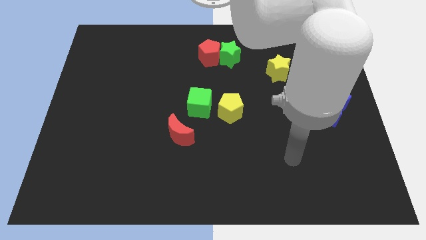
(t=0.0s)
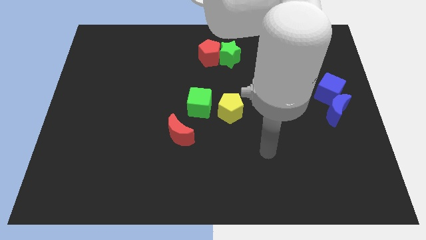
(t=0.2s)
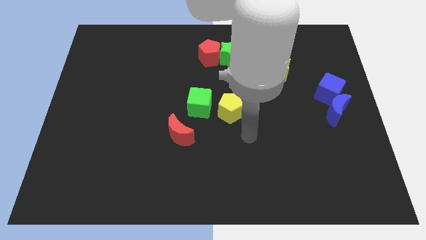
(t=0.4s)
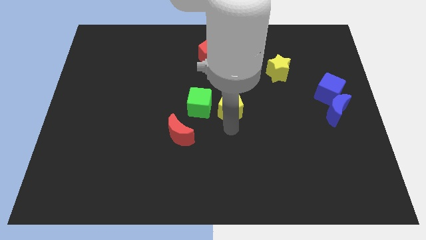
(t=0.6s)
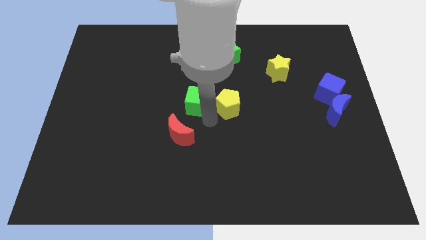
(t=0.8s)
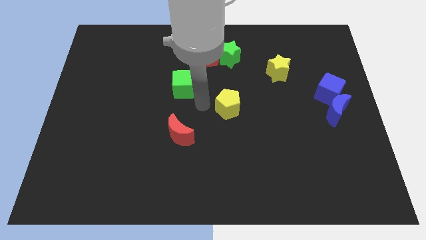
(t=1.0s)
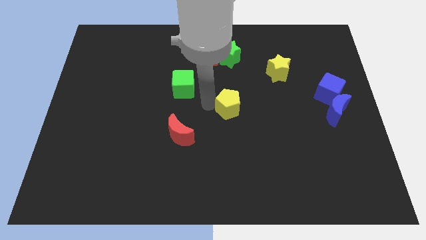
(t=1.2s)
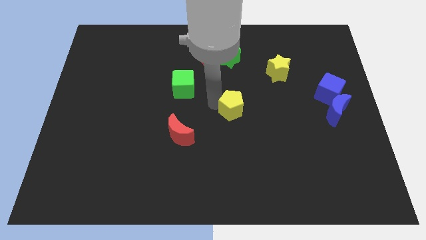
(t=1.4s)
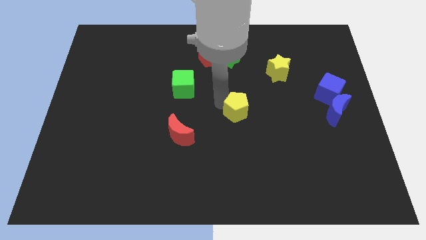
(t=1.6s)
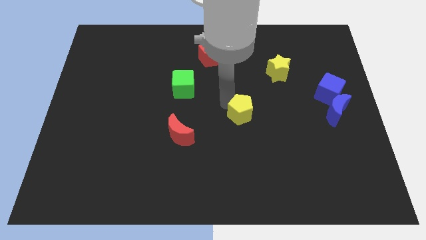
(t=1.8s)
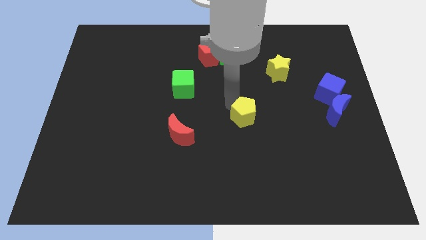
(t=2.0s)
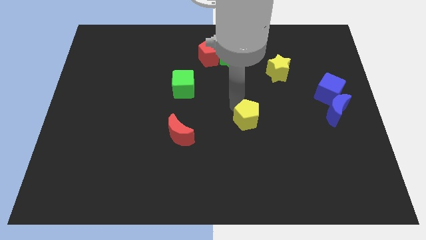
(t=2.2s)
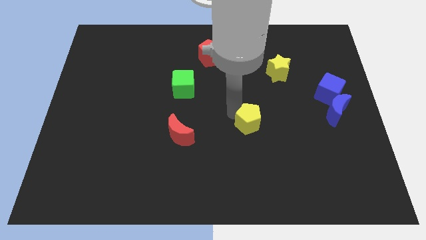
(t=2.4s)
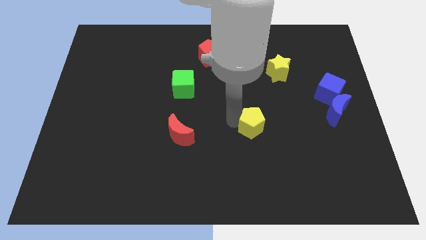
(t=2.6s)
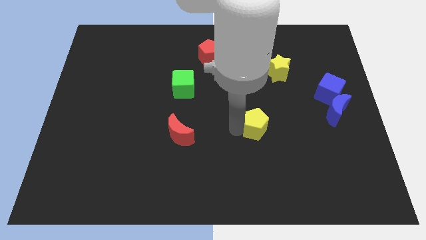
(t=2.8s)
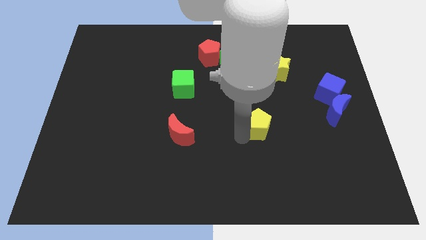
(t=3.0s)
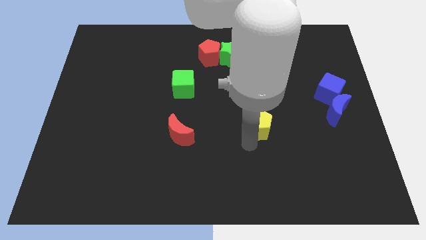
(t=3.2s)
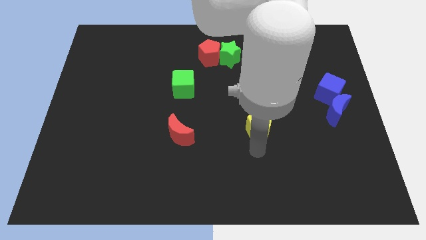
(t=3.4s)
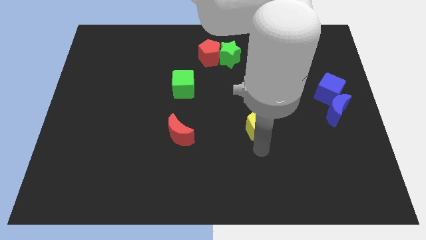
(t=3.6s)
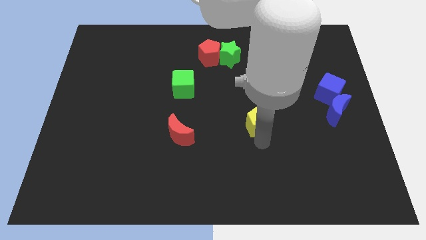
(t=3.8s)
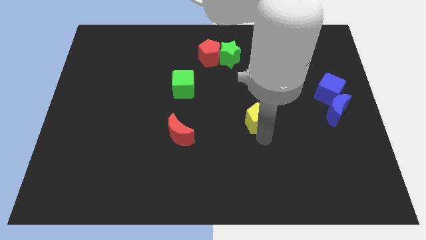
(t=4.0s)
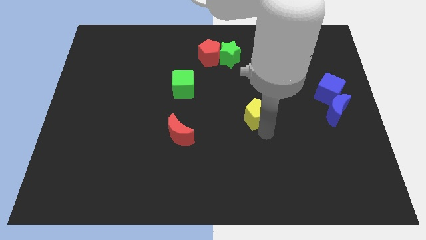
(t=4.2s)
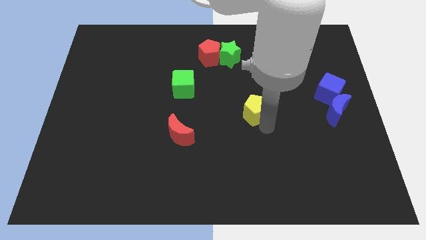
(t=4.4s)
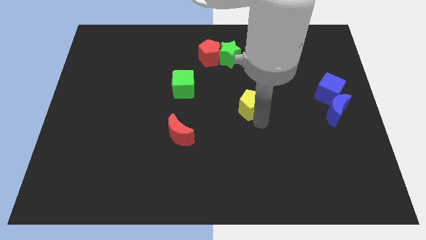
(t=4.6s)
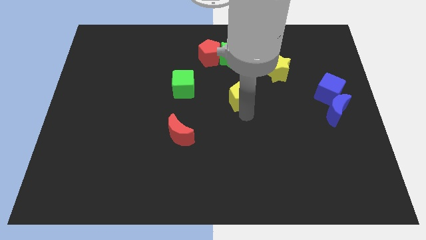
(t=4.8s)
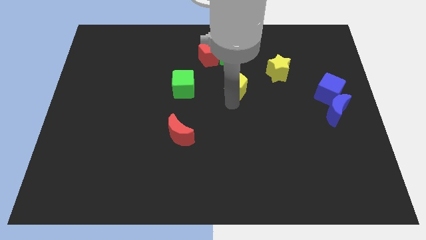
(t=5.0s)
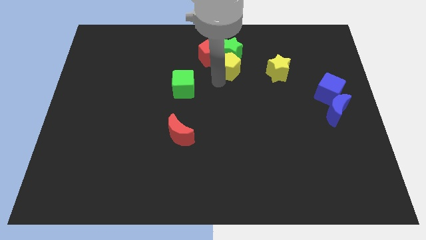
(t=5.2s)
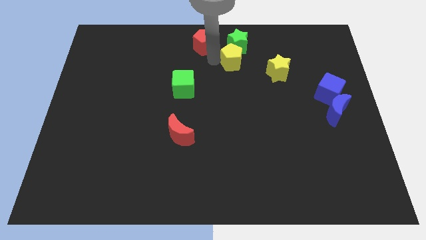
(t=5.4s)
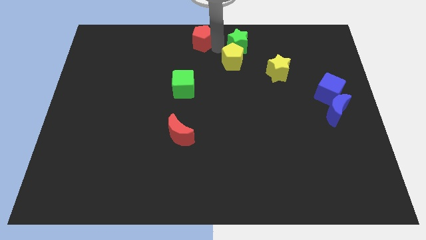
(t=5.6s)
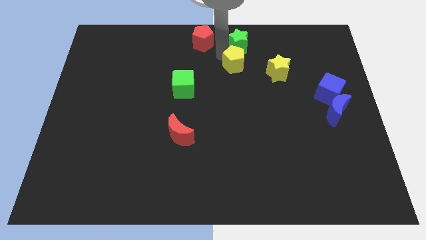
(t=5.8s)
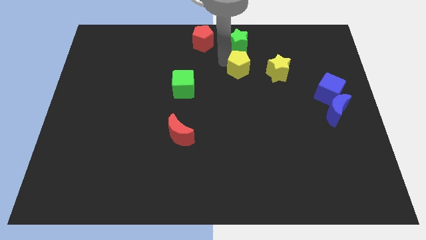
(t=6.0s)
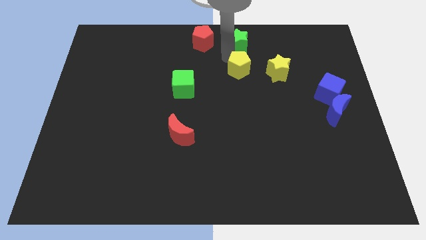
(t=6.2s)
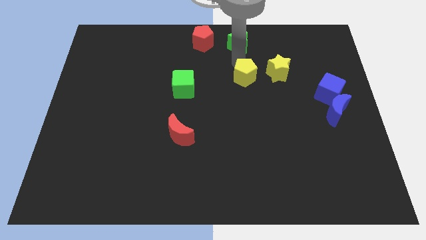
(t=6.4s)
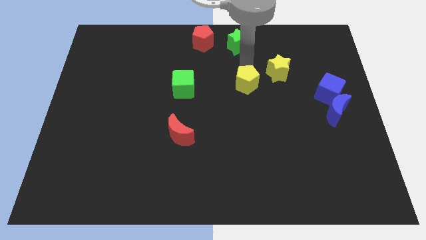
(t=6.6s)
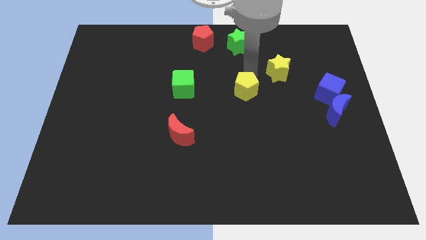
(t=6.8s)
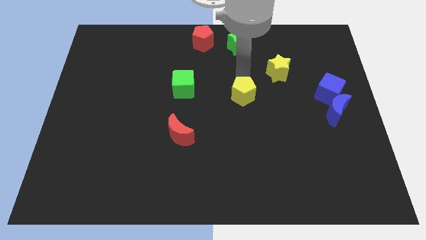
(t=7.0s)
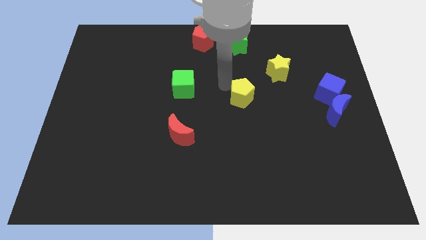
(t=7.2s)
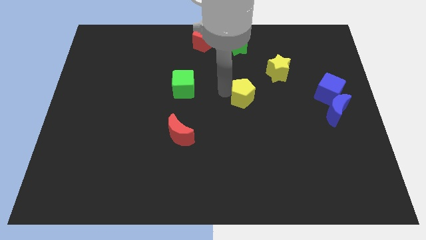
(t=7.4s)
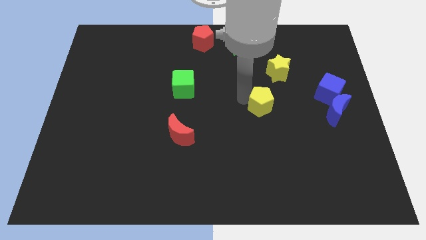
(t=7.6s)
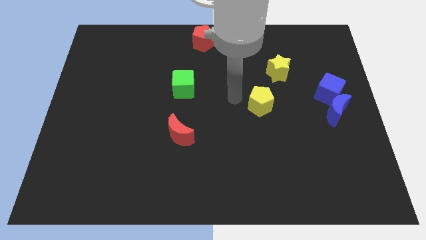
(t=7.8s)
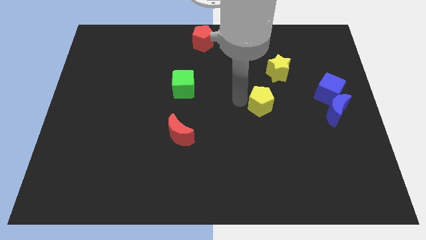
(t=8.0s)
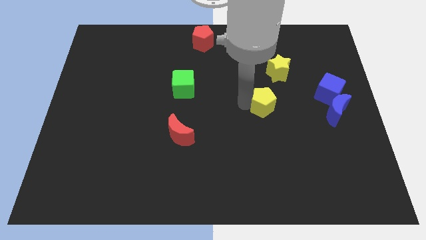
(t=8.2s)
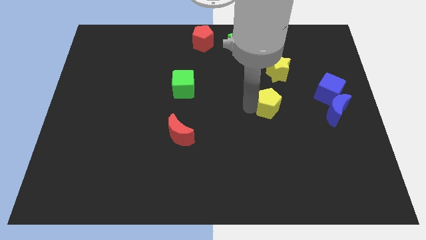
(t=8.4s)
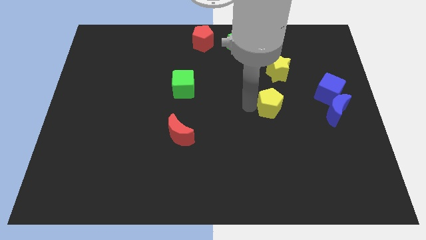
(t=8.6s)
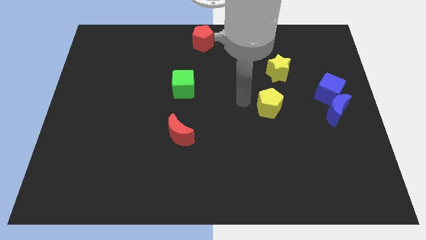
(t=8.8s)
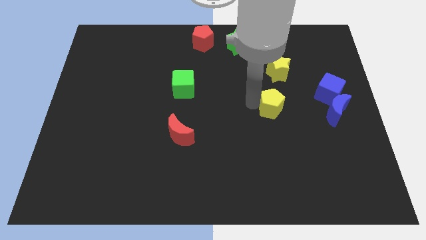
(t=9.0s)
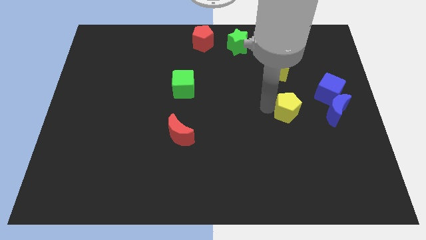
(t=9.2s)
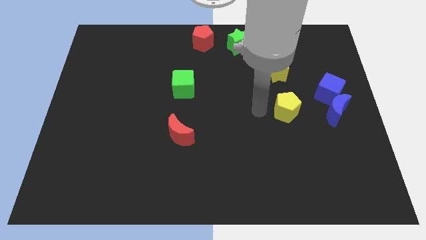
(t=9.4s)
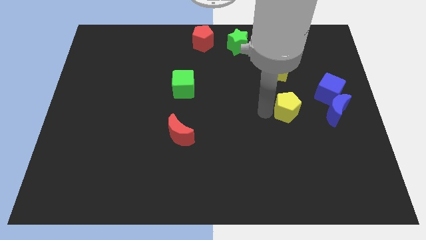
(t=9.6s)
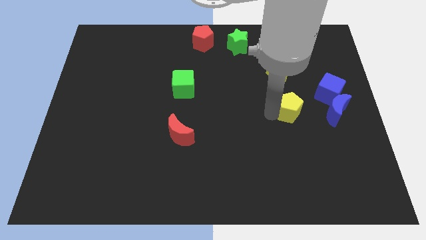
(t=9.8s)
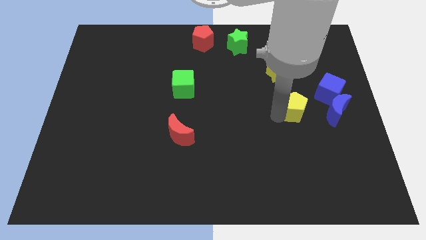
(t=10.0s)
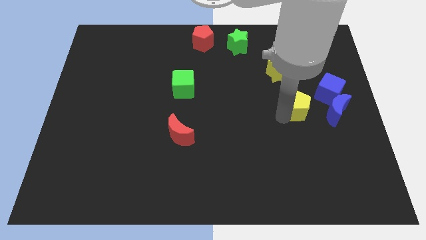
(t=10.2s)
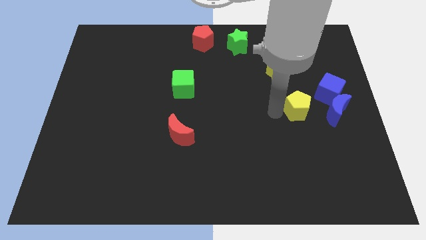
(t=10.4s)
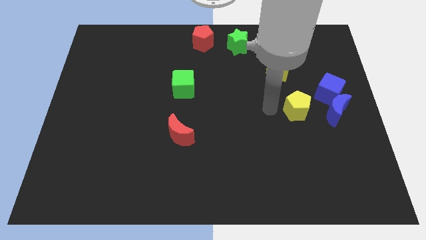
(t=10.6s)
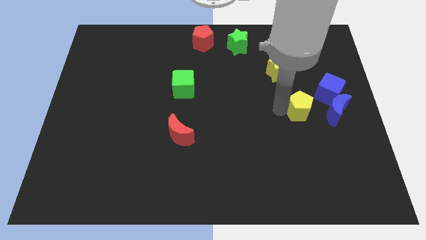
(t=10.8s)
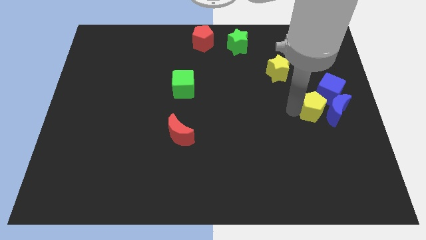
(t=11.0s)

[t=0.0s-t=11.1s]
slide the yellow pentagon next to the blue moon

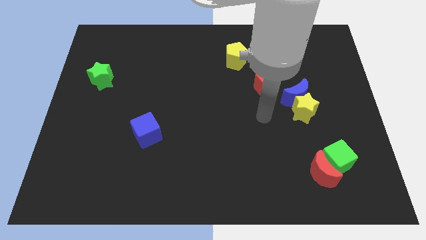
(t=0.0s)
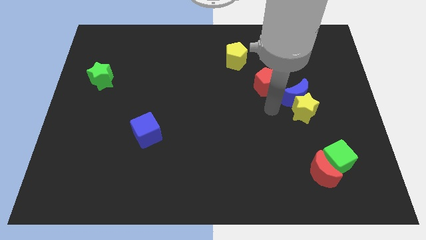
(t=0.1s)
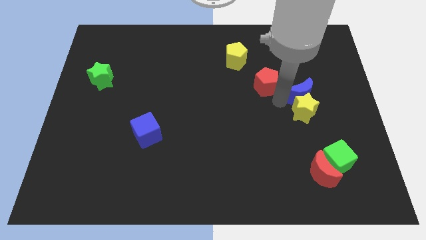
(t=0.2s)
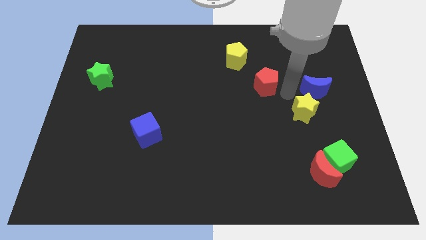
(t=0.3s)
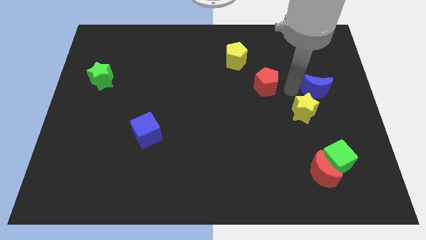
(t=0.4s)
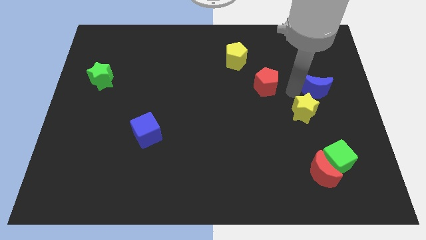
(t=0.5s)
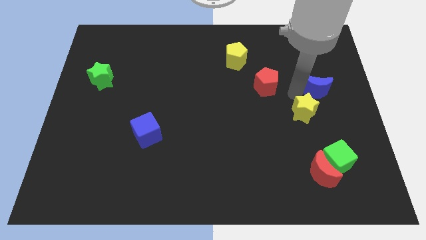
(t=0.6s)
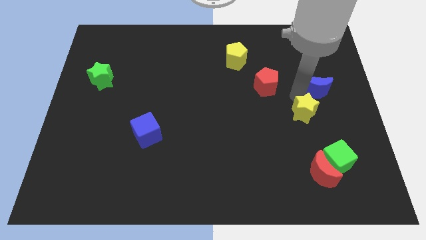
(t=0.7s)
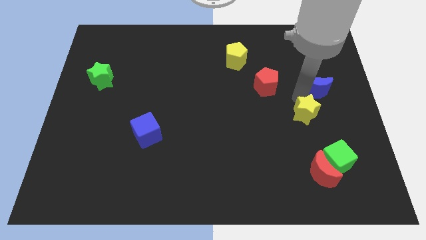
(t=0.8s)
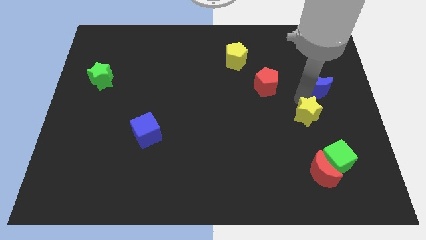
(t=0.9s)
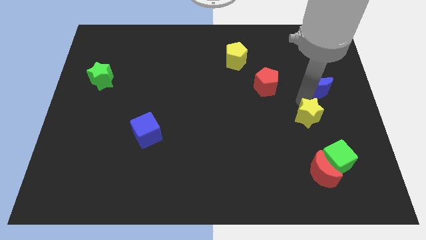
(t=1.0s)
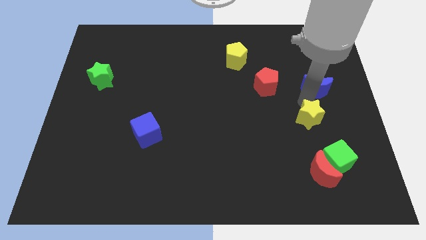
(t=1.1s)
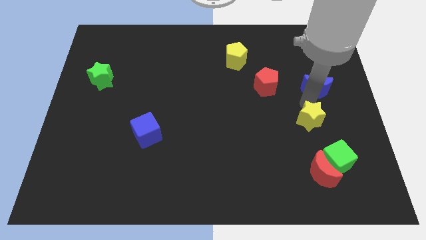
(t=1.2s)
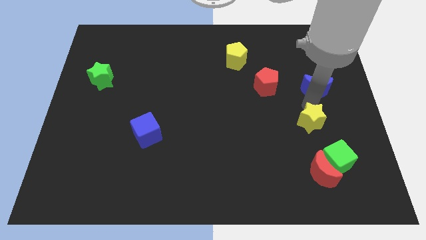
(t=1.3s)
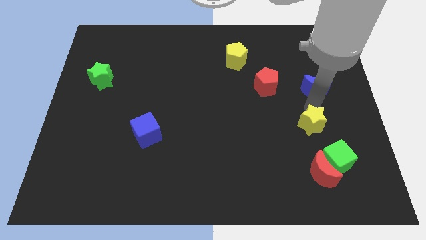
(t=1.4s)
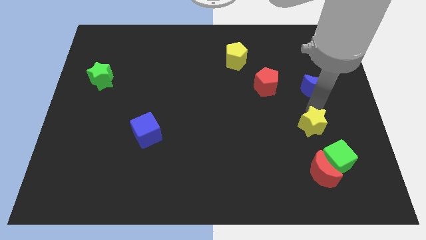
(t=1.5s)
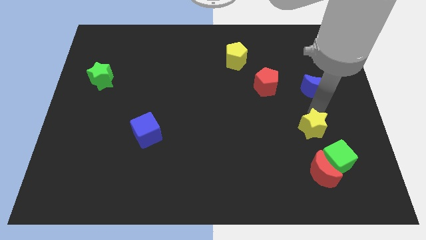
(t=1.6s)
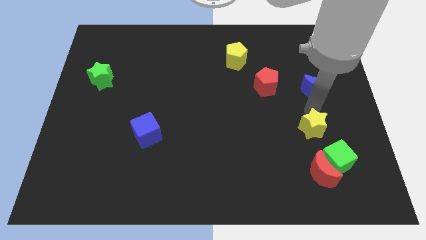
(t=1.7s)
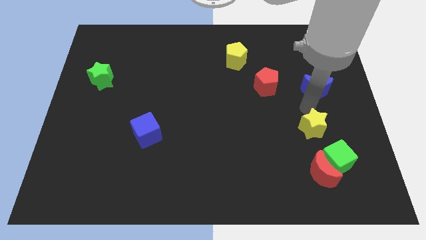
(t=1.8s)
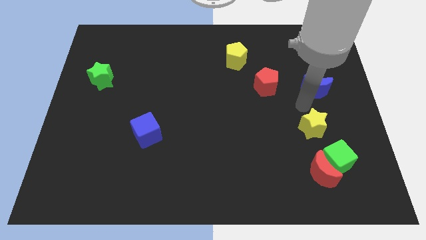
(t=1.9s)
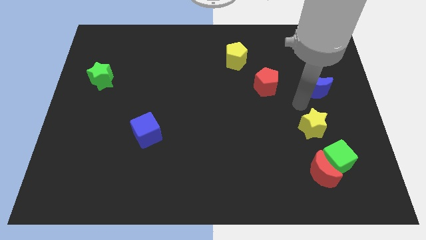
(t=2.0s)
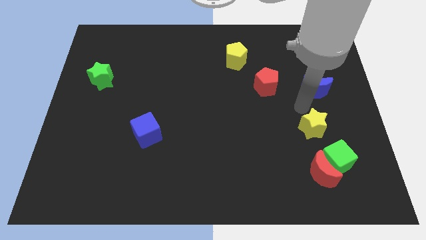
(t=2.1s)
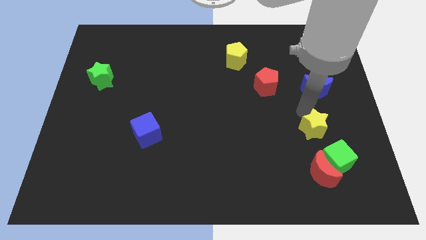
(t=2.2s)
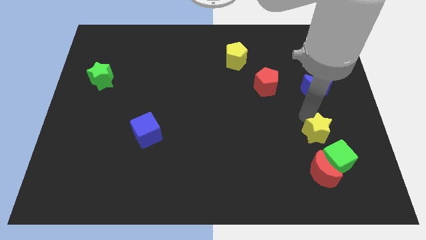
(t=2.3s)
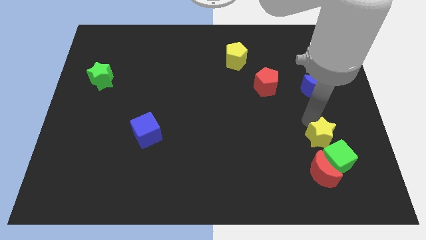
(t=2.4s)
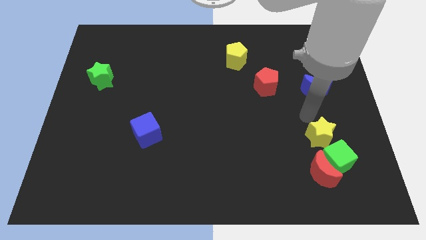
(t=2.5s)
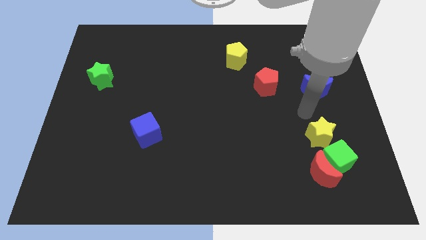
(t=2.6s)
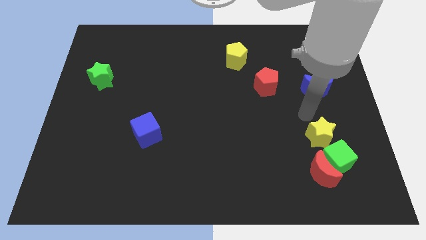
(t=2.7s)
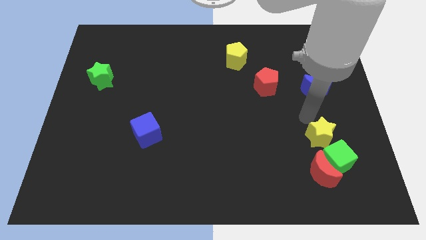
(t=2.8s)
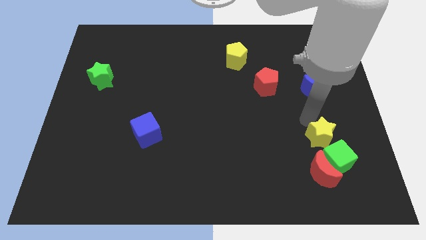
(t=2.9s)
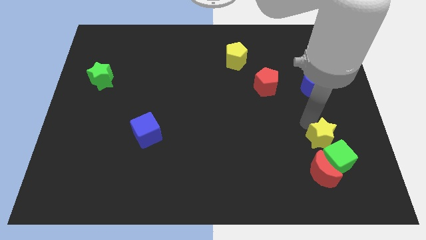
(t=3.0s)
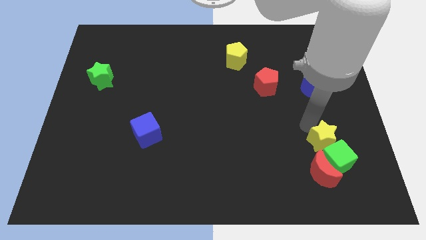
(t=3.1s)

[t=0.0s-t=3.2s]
slide the yellow star next to the green cube
